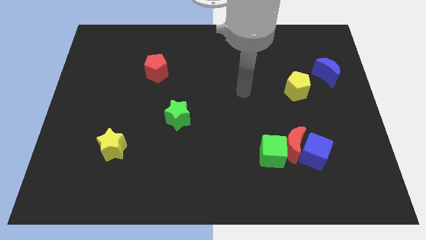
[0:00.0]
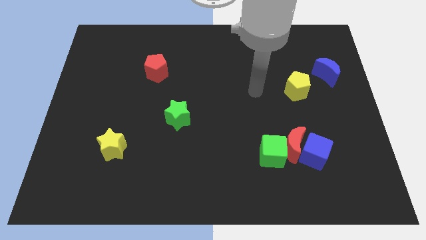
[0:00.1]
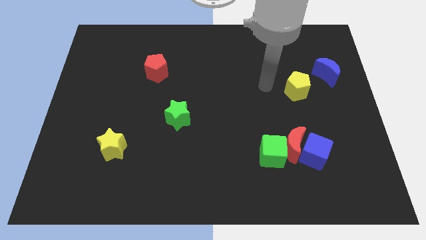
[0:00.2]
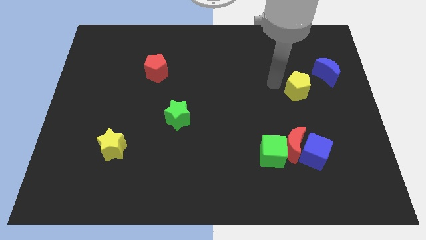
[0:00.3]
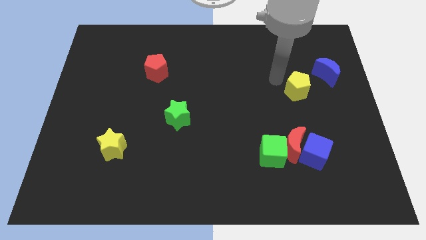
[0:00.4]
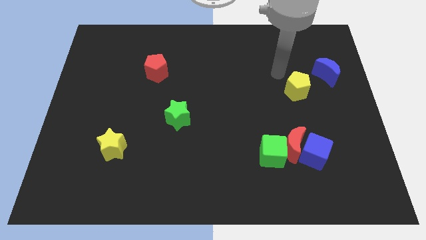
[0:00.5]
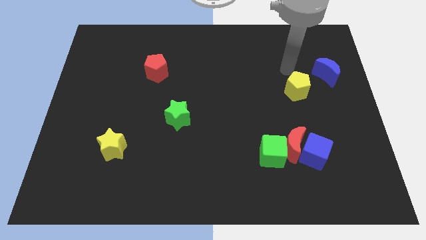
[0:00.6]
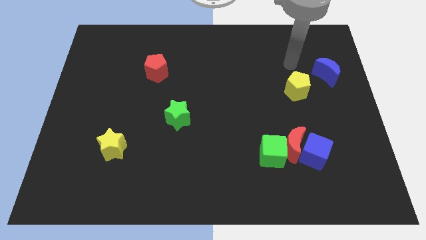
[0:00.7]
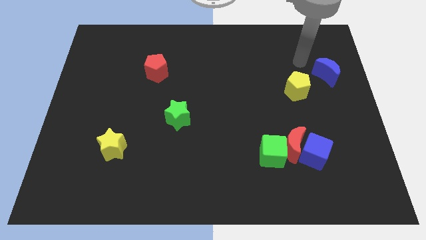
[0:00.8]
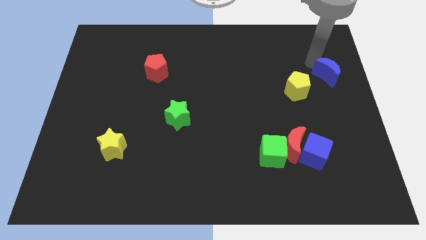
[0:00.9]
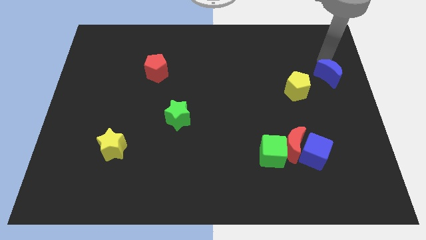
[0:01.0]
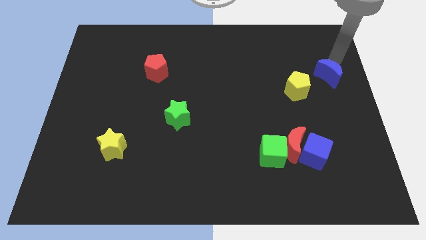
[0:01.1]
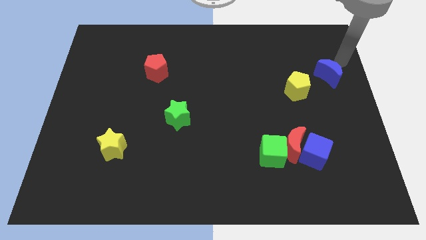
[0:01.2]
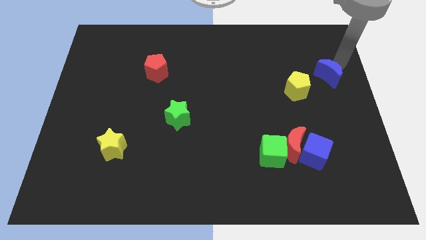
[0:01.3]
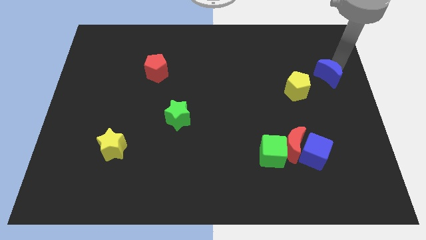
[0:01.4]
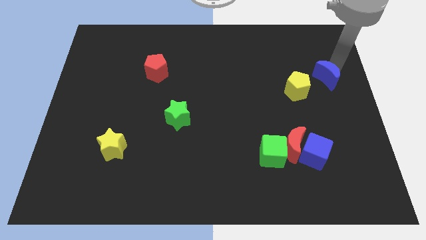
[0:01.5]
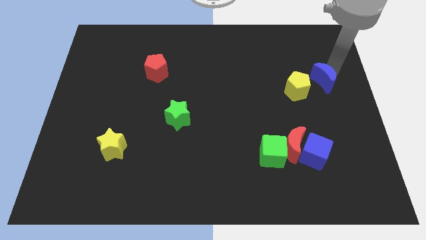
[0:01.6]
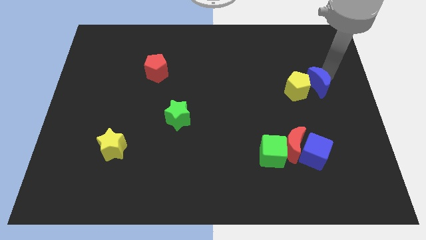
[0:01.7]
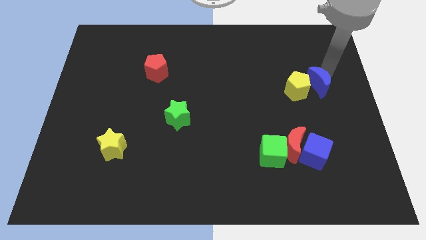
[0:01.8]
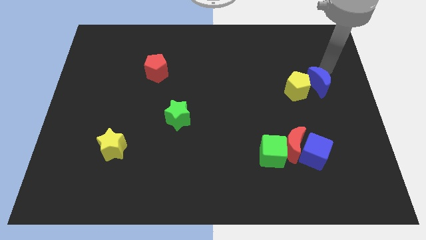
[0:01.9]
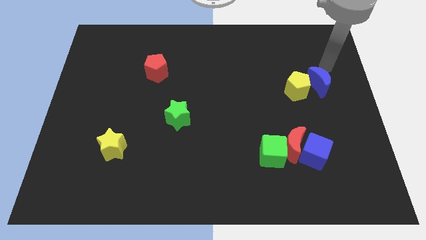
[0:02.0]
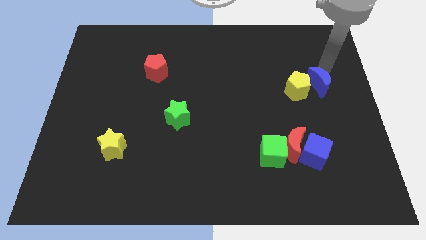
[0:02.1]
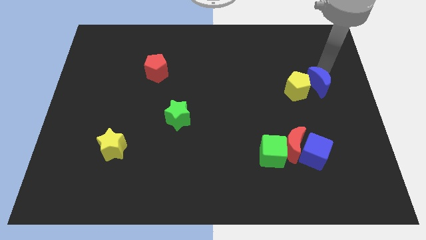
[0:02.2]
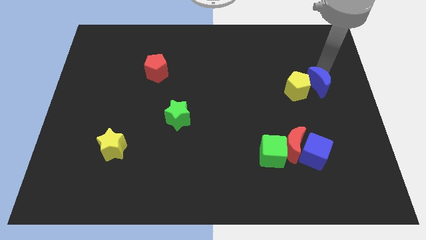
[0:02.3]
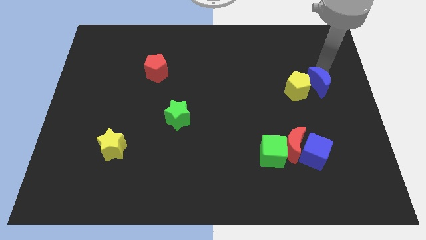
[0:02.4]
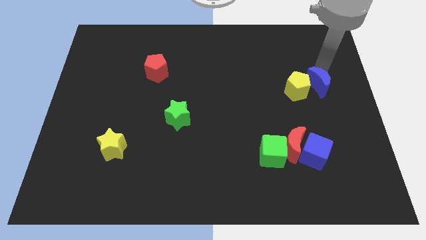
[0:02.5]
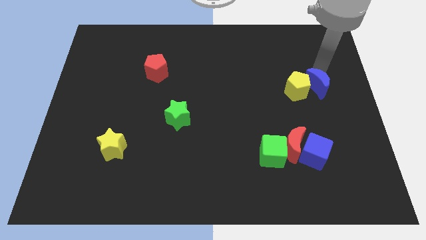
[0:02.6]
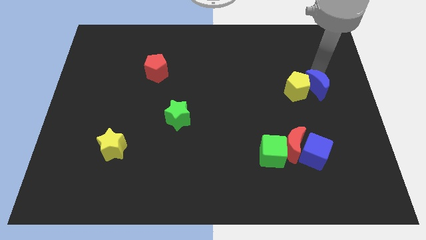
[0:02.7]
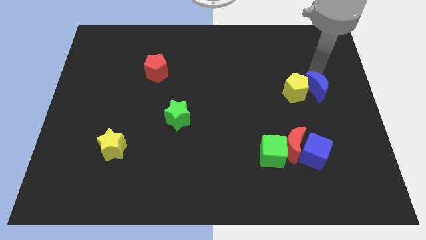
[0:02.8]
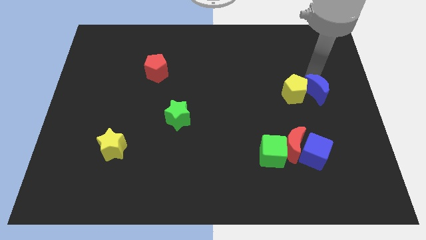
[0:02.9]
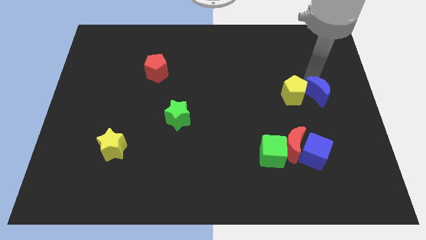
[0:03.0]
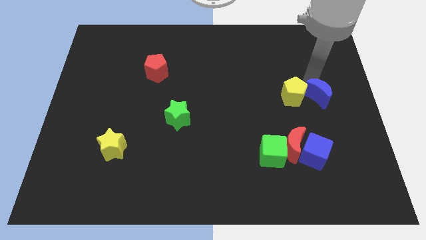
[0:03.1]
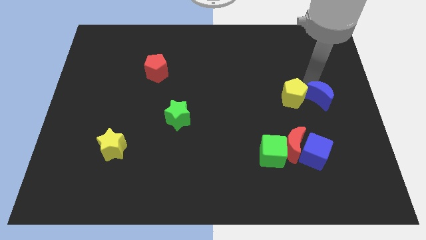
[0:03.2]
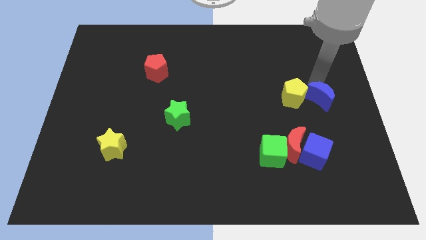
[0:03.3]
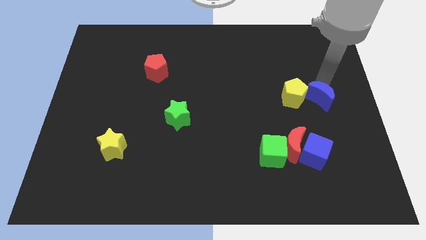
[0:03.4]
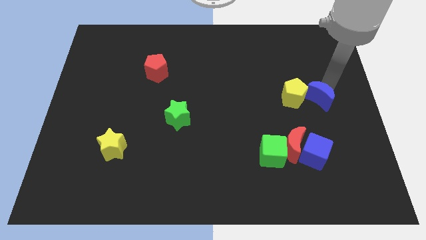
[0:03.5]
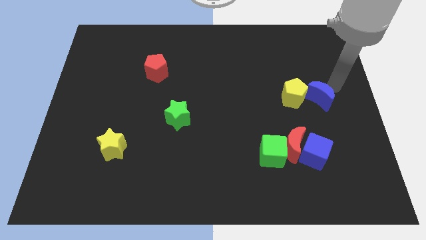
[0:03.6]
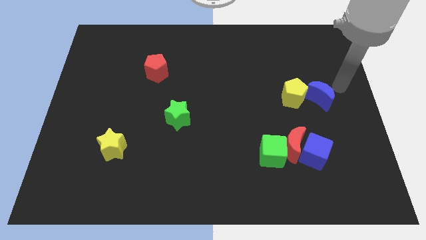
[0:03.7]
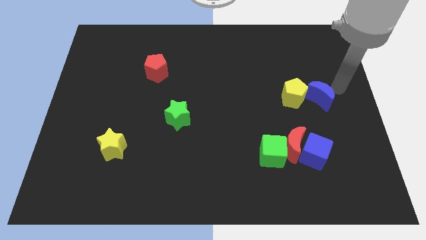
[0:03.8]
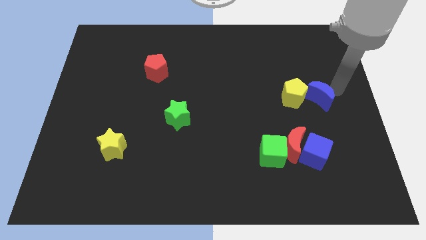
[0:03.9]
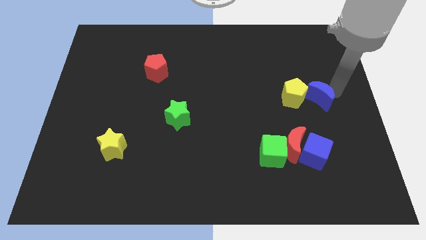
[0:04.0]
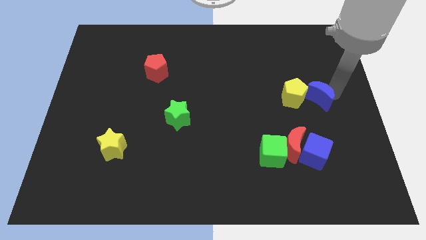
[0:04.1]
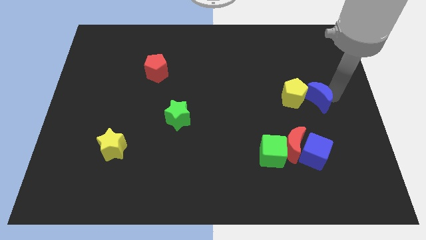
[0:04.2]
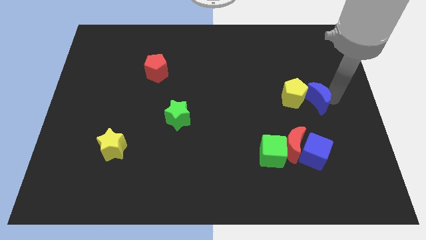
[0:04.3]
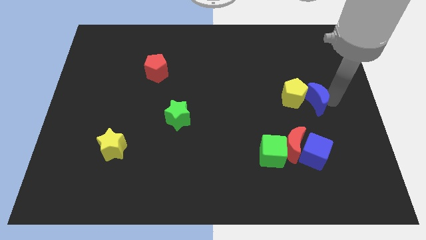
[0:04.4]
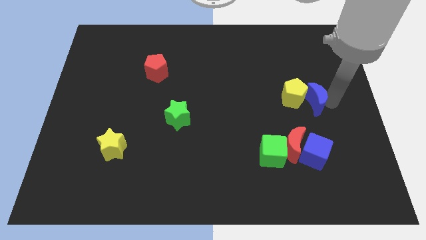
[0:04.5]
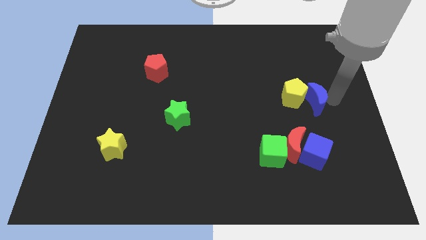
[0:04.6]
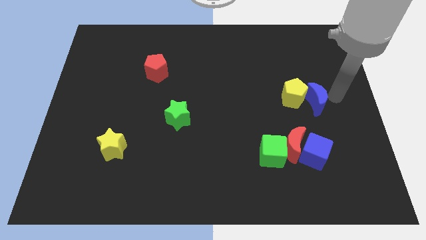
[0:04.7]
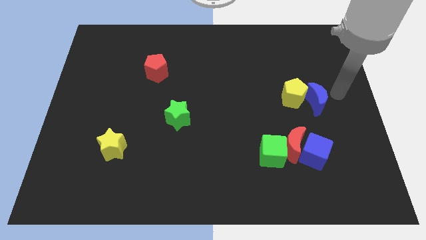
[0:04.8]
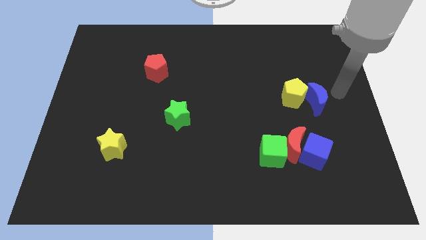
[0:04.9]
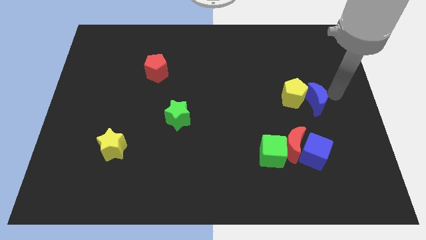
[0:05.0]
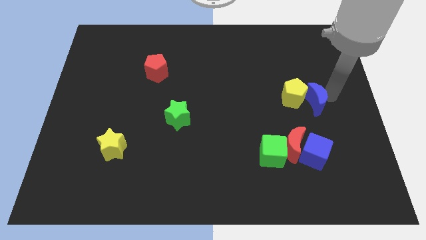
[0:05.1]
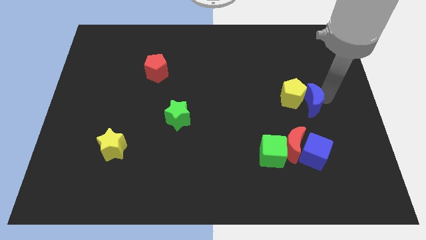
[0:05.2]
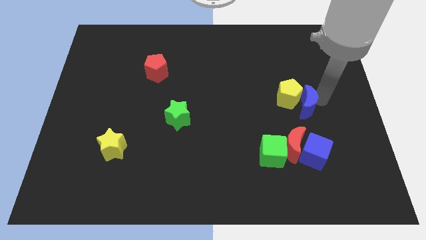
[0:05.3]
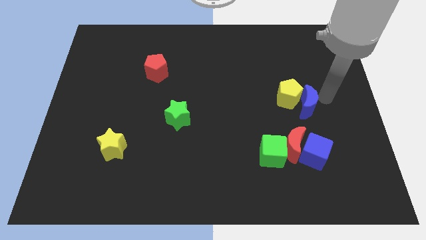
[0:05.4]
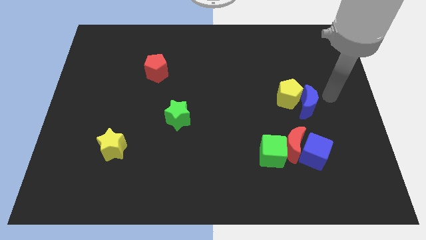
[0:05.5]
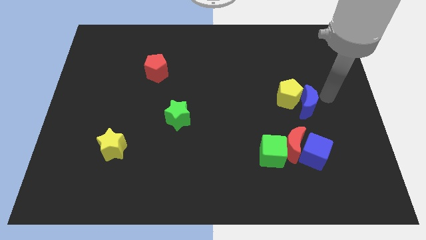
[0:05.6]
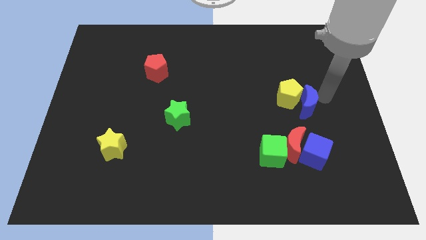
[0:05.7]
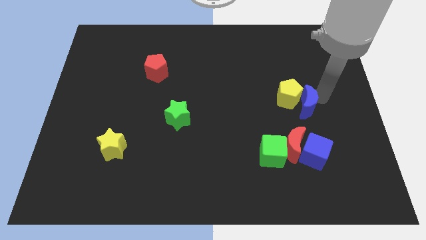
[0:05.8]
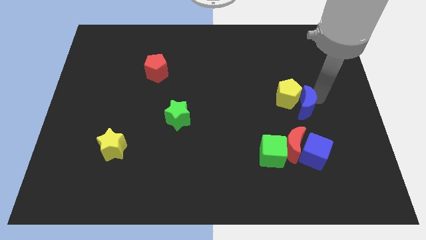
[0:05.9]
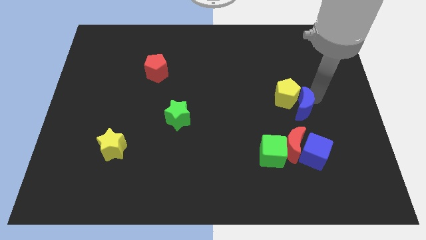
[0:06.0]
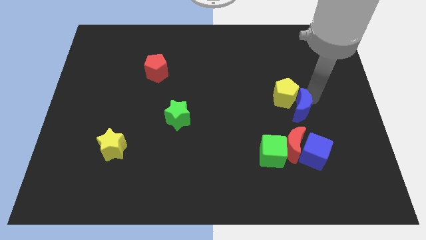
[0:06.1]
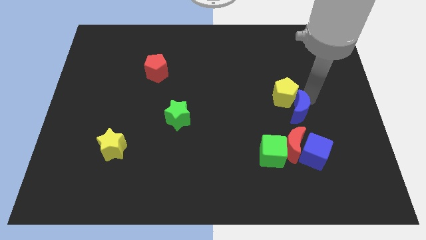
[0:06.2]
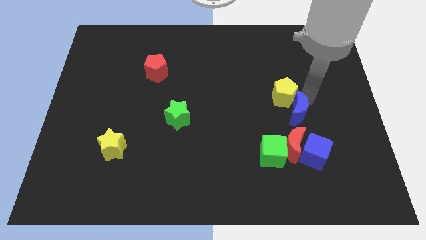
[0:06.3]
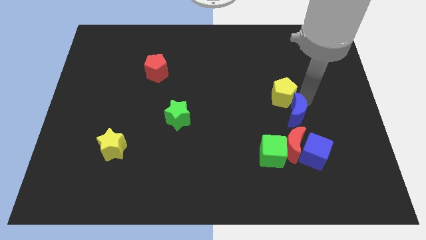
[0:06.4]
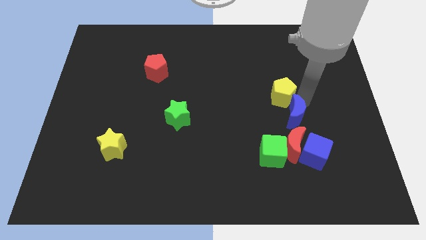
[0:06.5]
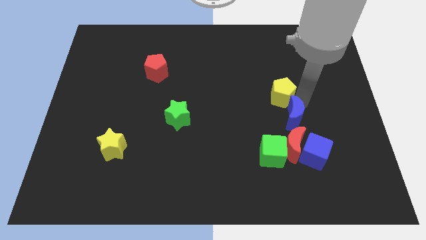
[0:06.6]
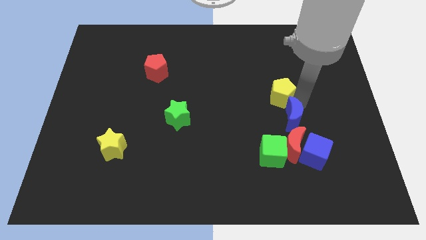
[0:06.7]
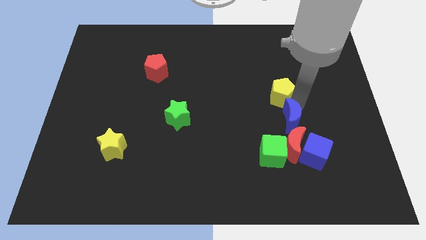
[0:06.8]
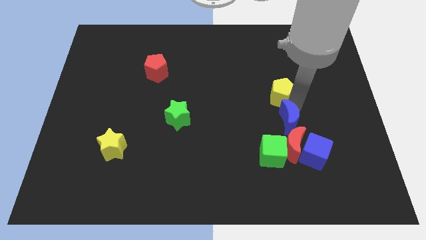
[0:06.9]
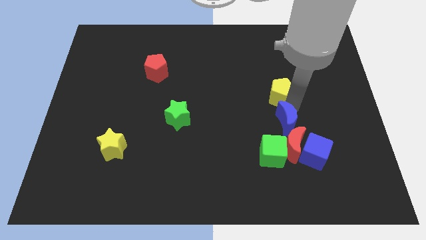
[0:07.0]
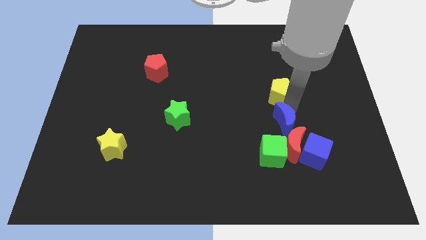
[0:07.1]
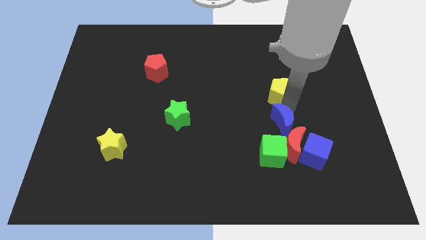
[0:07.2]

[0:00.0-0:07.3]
slide the blue moon downwards and to the left diagonally

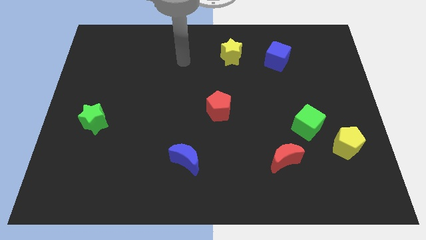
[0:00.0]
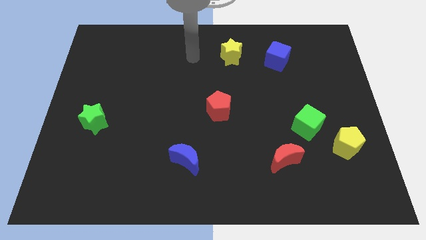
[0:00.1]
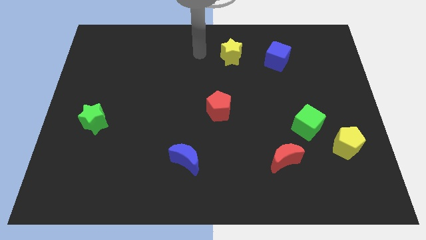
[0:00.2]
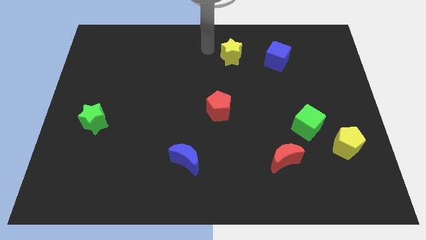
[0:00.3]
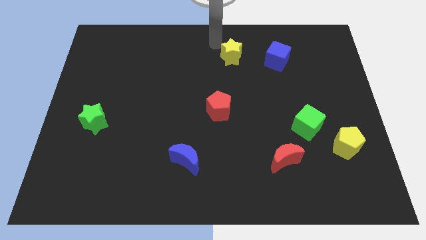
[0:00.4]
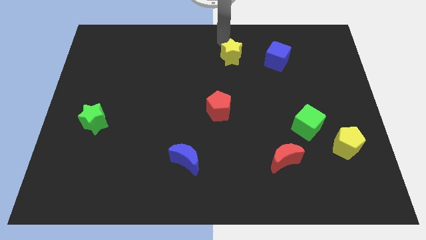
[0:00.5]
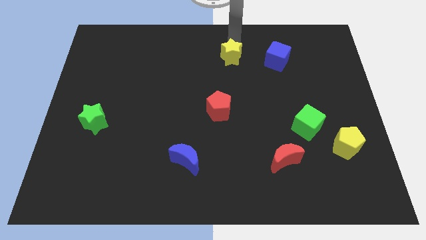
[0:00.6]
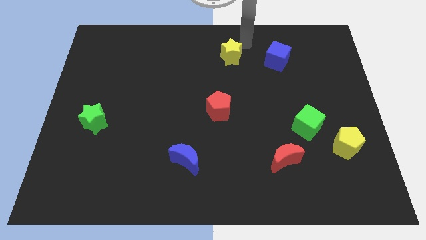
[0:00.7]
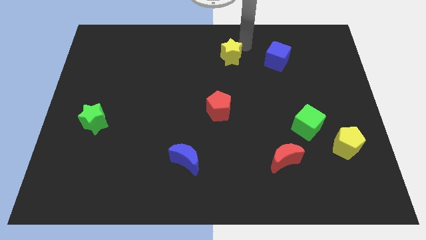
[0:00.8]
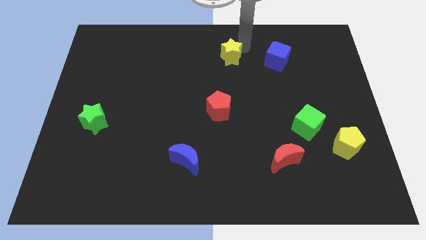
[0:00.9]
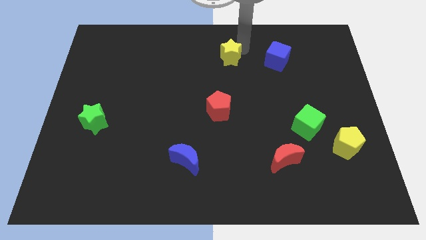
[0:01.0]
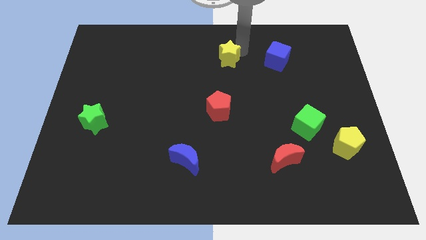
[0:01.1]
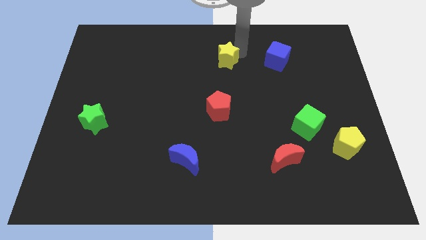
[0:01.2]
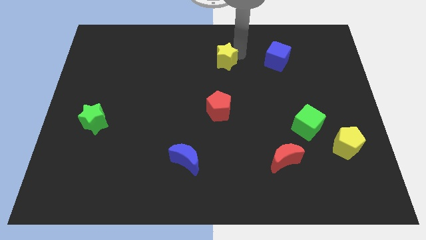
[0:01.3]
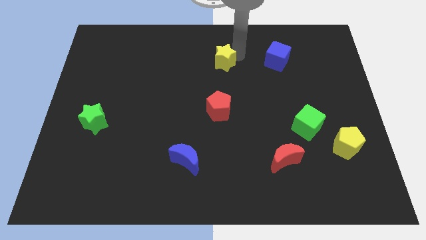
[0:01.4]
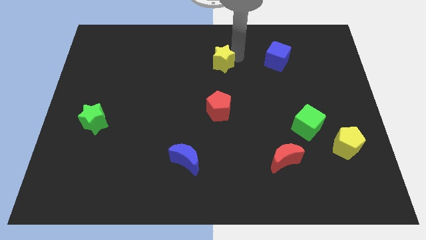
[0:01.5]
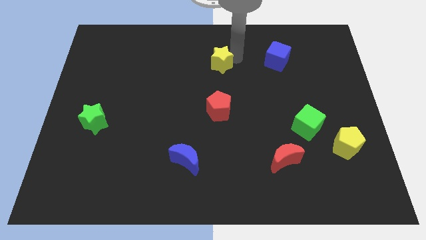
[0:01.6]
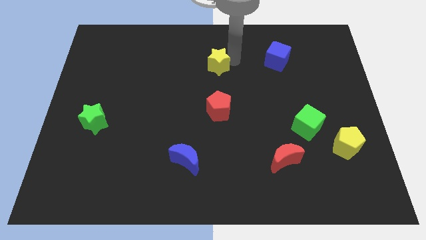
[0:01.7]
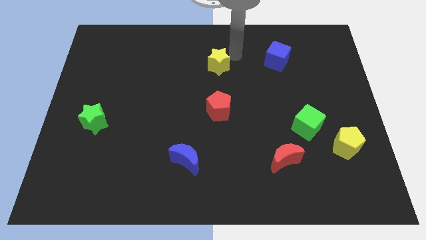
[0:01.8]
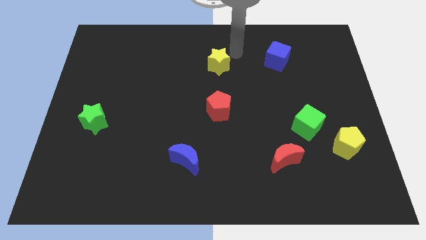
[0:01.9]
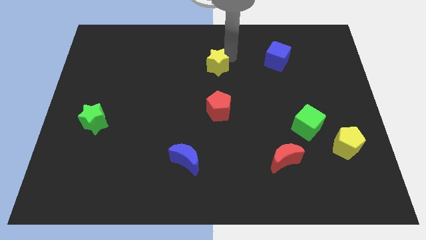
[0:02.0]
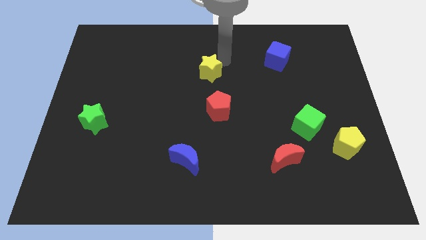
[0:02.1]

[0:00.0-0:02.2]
slightly slide the yellow star down and left diagonally
